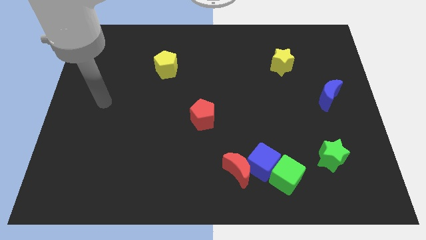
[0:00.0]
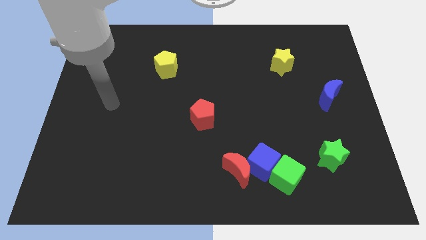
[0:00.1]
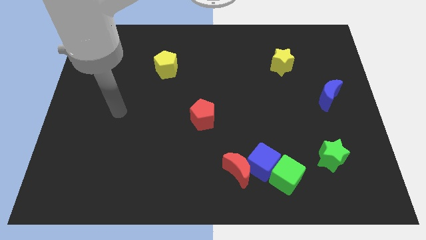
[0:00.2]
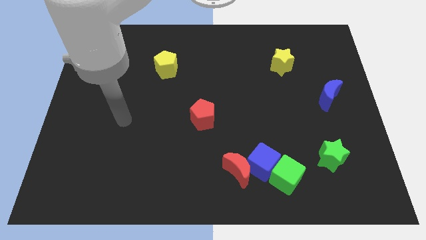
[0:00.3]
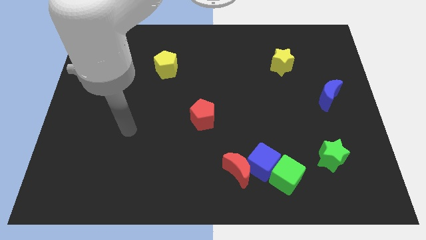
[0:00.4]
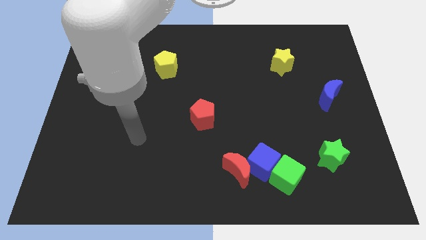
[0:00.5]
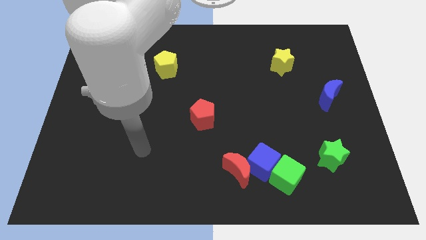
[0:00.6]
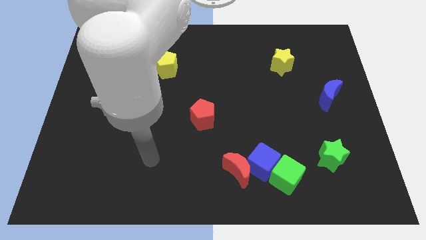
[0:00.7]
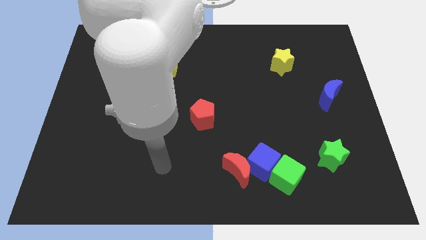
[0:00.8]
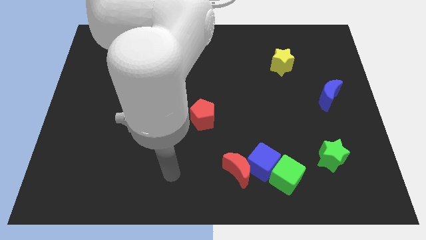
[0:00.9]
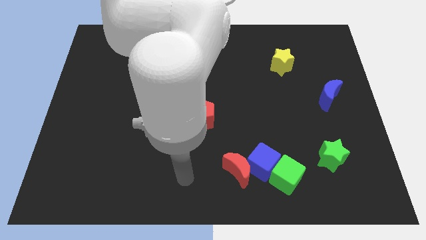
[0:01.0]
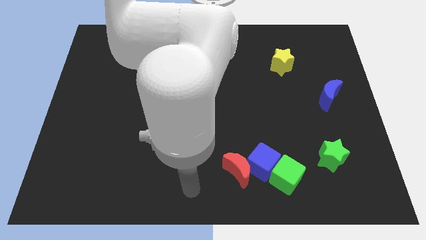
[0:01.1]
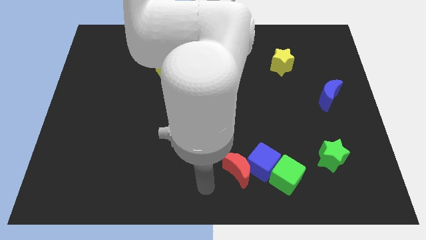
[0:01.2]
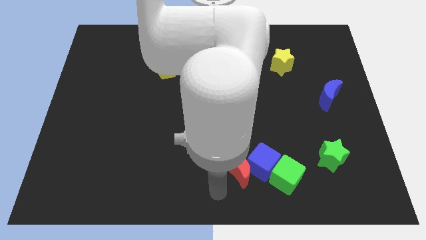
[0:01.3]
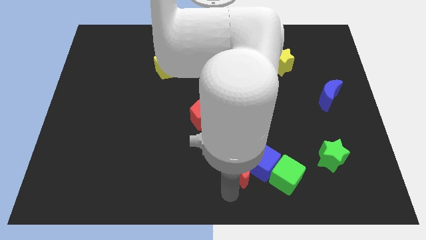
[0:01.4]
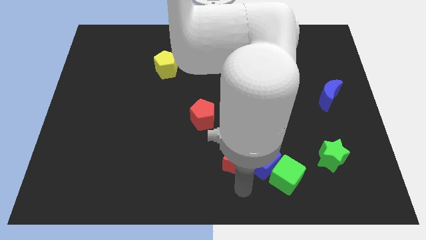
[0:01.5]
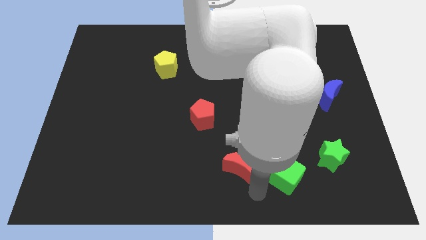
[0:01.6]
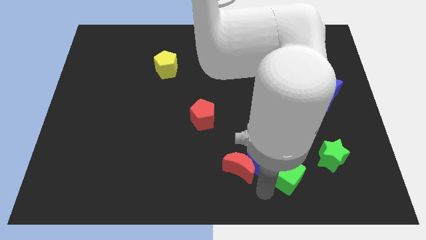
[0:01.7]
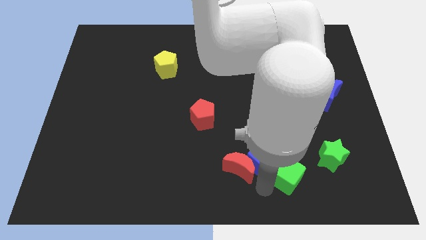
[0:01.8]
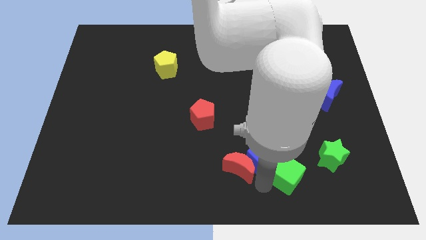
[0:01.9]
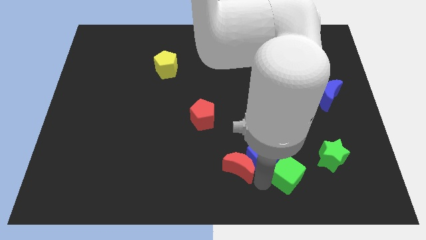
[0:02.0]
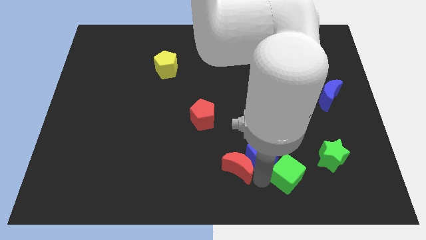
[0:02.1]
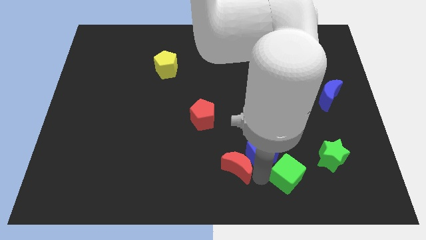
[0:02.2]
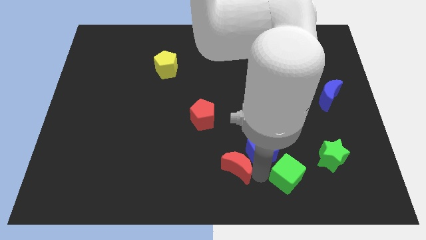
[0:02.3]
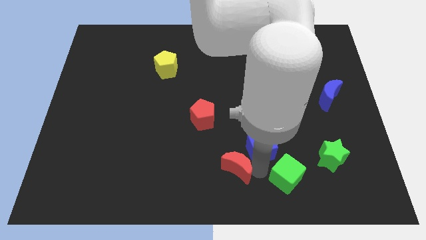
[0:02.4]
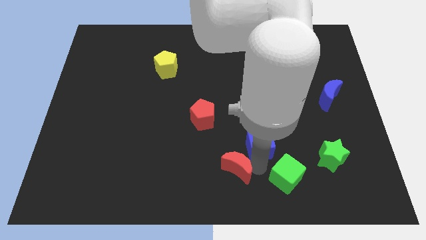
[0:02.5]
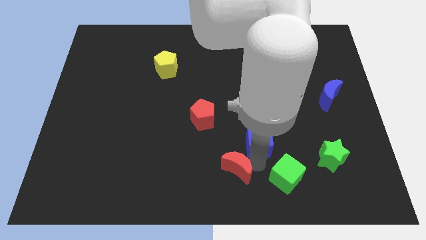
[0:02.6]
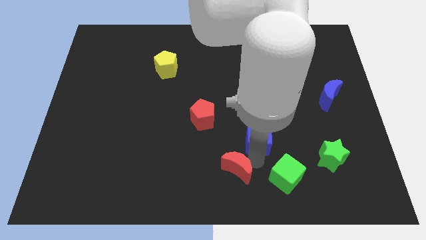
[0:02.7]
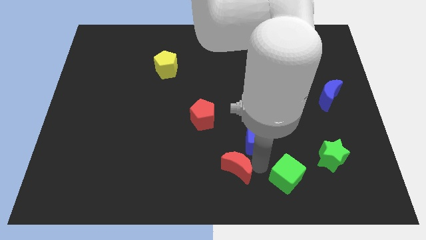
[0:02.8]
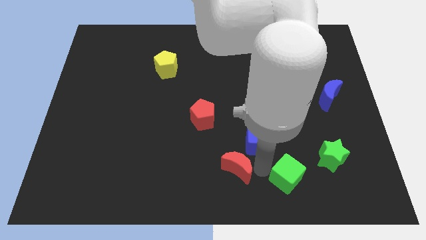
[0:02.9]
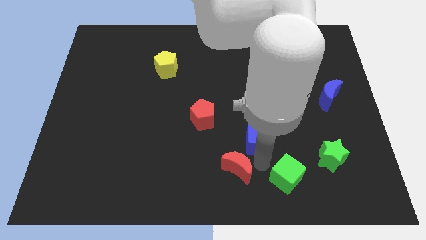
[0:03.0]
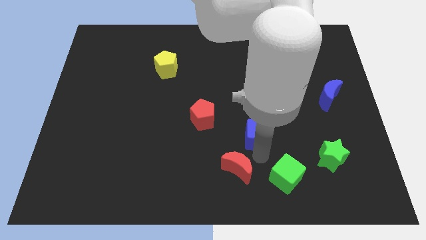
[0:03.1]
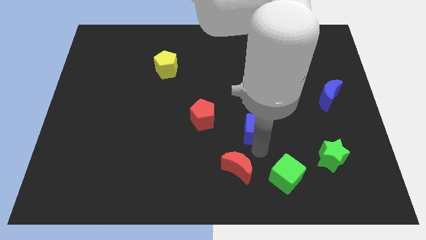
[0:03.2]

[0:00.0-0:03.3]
pull the blue cube apart from the red moon and green cube

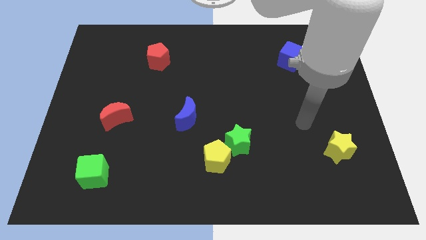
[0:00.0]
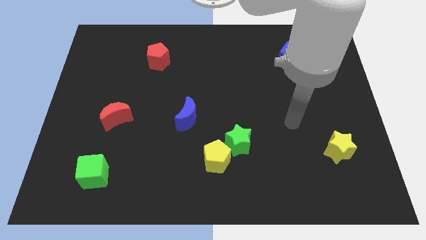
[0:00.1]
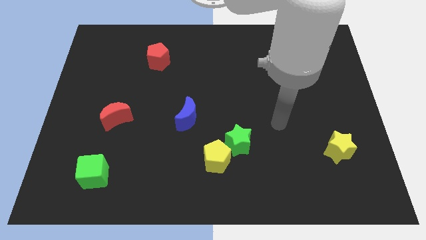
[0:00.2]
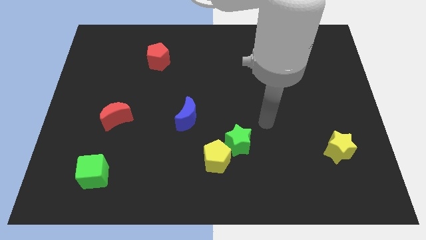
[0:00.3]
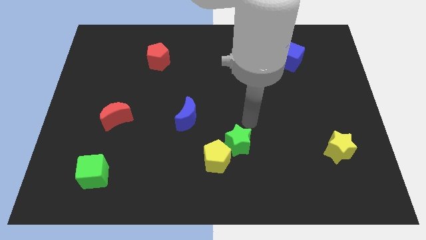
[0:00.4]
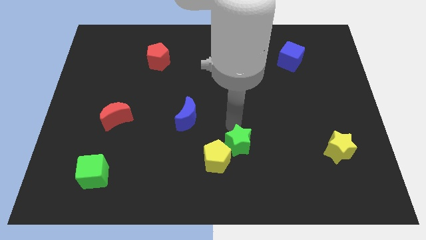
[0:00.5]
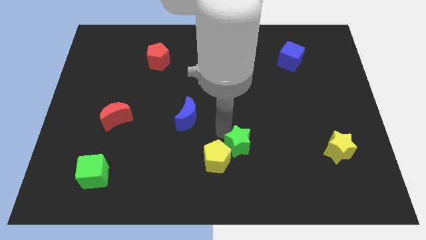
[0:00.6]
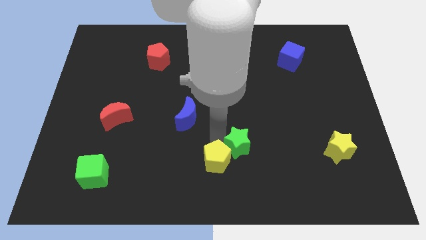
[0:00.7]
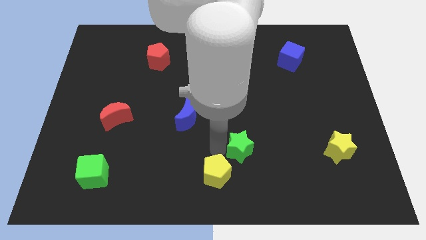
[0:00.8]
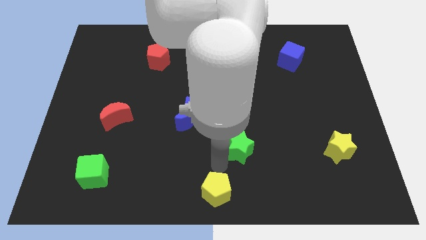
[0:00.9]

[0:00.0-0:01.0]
separate the green star from the yellow pentagon

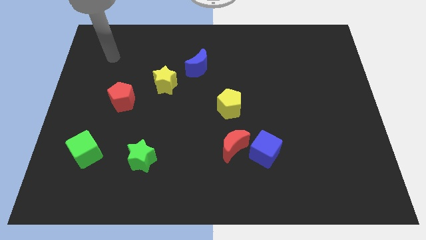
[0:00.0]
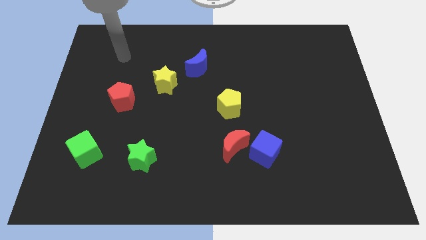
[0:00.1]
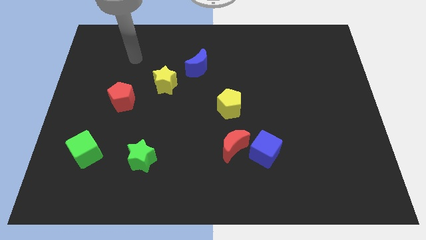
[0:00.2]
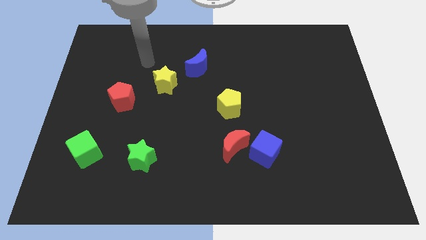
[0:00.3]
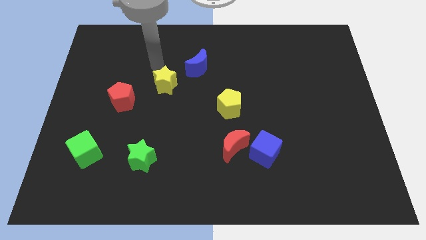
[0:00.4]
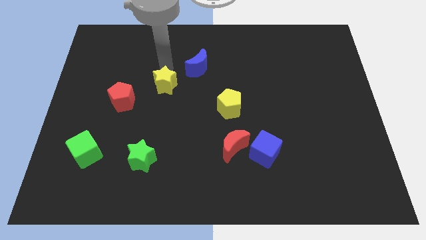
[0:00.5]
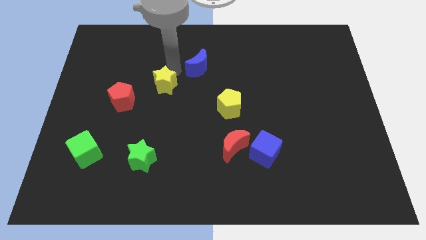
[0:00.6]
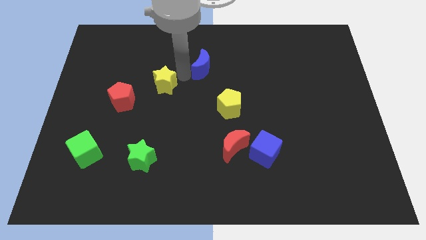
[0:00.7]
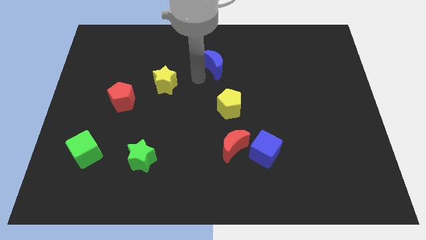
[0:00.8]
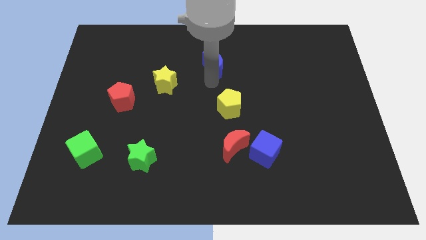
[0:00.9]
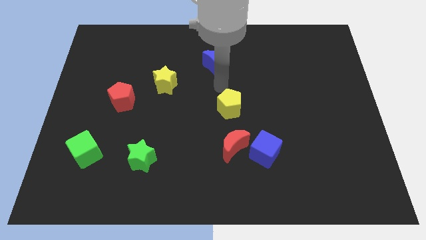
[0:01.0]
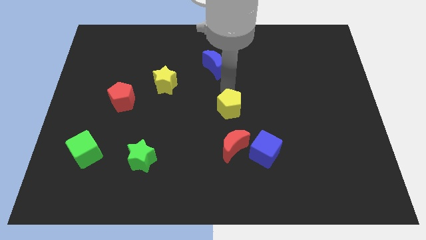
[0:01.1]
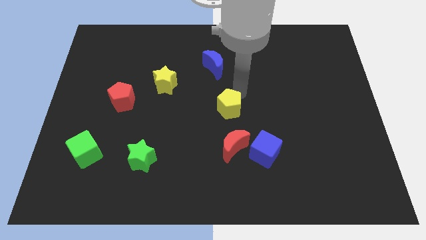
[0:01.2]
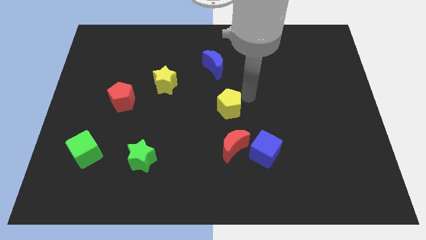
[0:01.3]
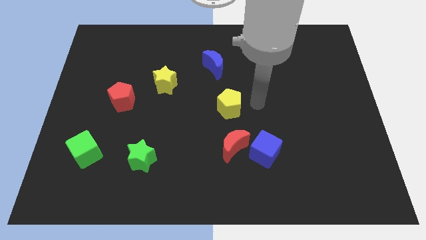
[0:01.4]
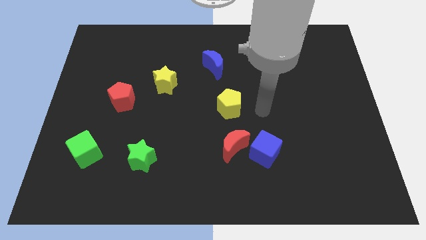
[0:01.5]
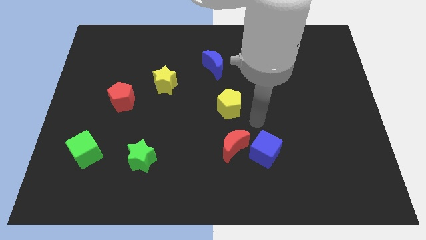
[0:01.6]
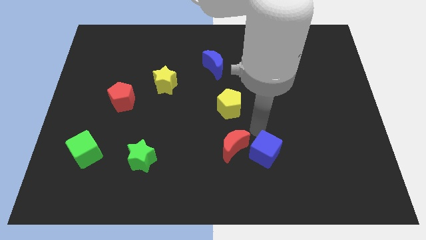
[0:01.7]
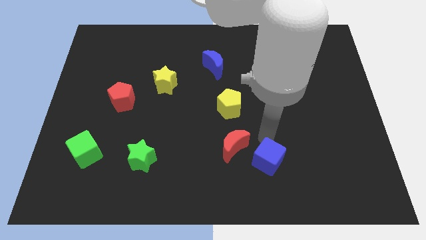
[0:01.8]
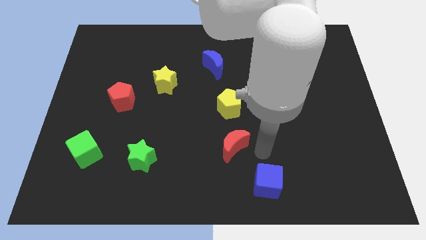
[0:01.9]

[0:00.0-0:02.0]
separate the red moon from the blue cube

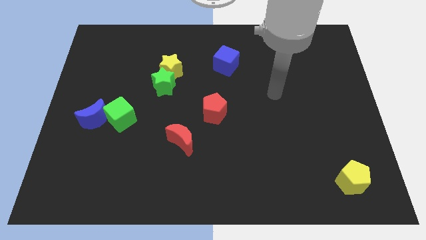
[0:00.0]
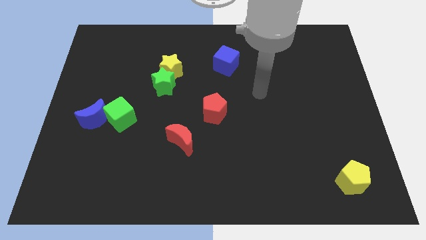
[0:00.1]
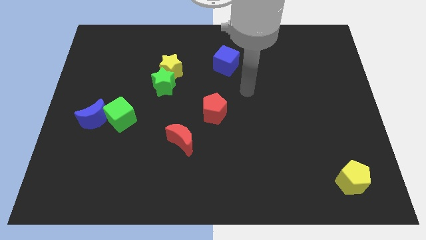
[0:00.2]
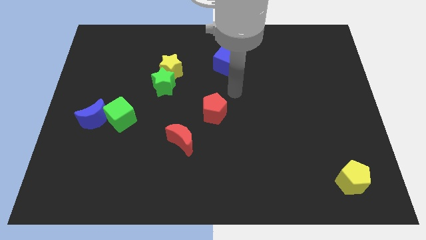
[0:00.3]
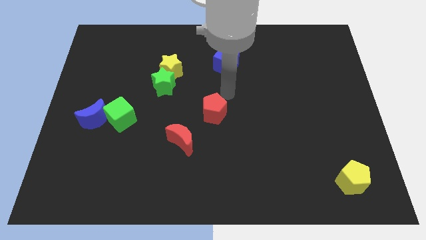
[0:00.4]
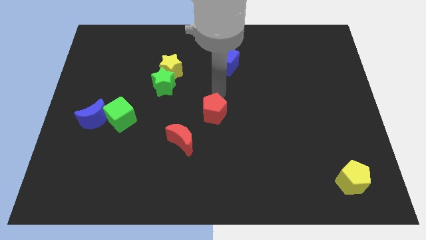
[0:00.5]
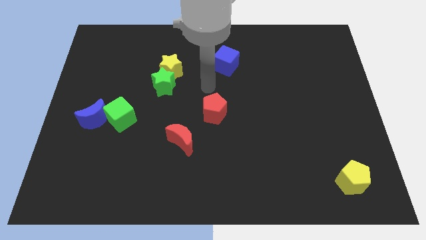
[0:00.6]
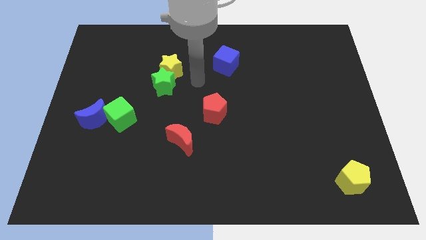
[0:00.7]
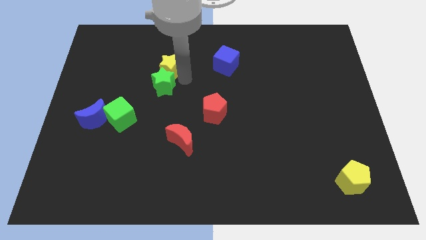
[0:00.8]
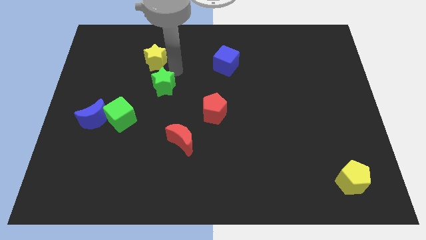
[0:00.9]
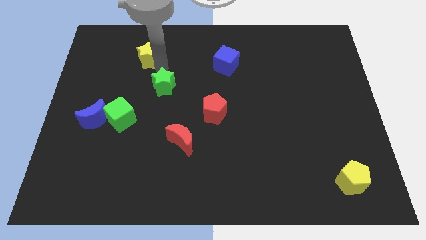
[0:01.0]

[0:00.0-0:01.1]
move the green star away from the yellow star

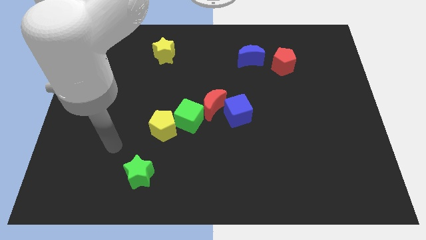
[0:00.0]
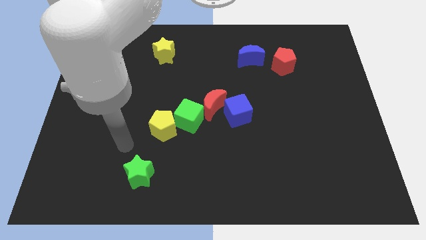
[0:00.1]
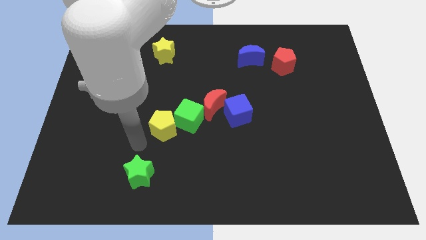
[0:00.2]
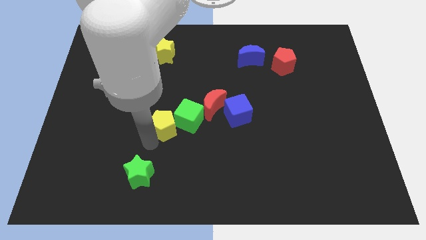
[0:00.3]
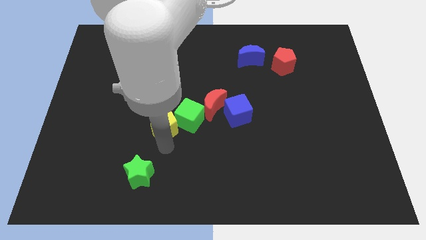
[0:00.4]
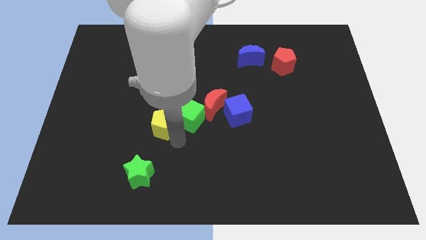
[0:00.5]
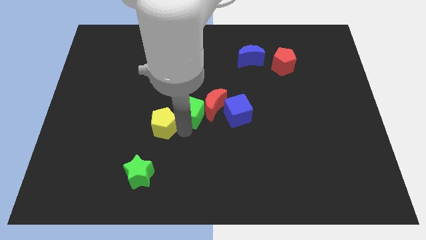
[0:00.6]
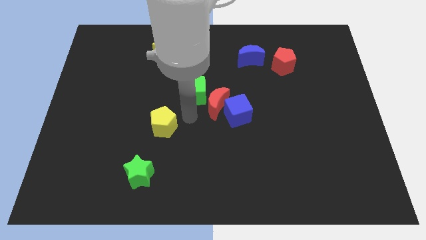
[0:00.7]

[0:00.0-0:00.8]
pull the yellow pentagon apart from the green cube

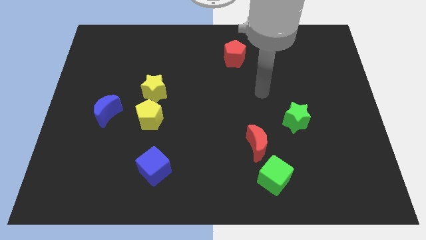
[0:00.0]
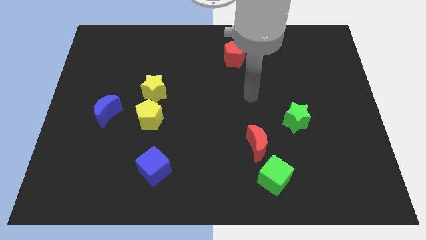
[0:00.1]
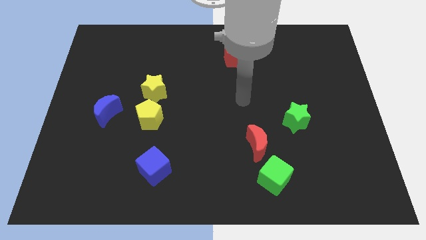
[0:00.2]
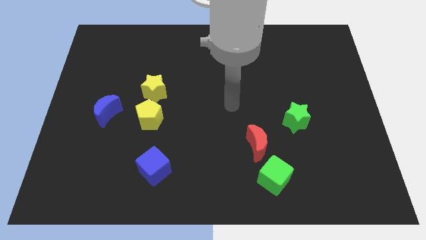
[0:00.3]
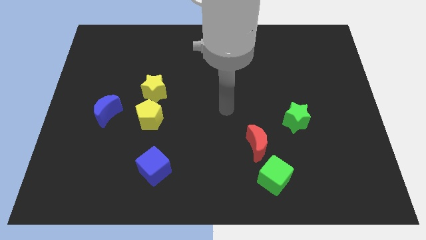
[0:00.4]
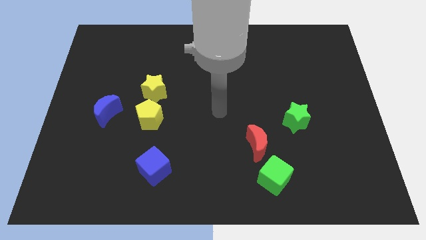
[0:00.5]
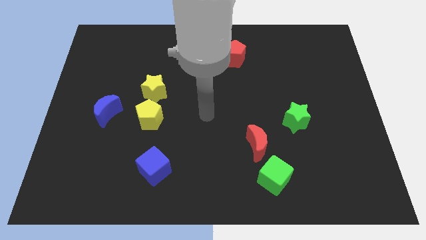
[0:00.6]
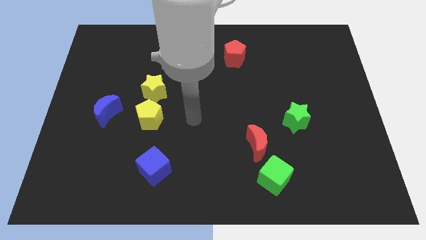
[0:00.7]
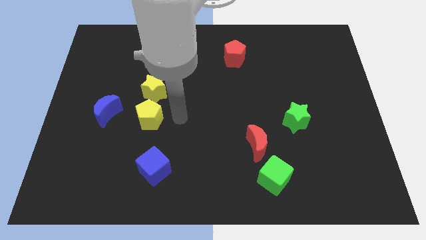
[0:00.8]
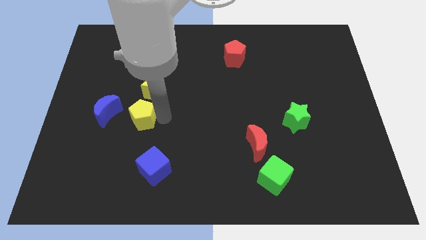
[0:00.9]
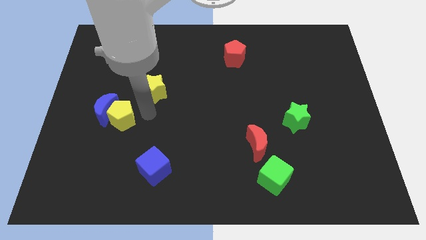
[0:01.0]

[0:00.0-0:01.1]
move the yellow star away from the yellow pentagon
